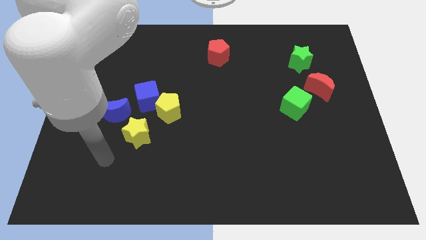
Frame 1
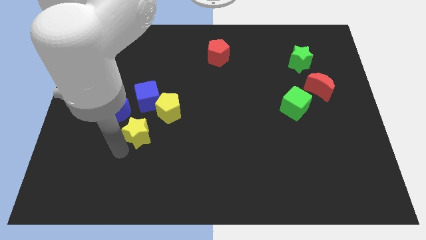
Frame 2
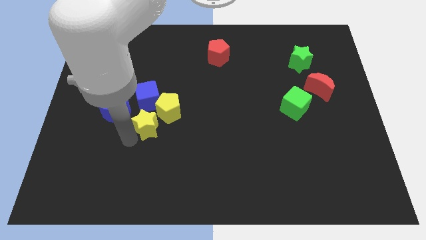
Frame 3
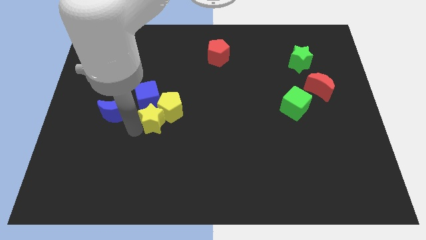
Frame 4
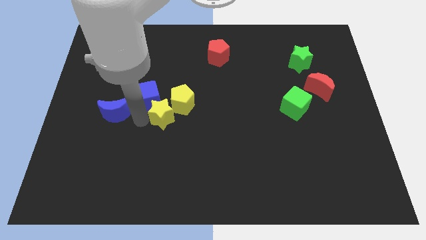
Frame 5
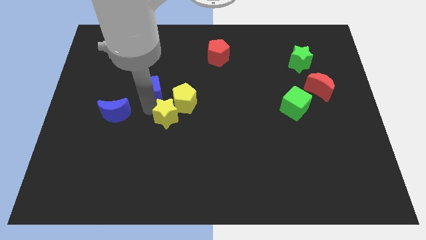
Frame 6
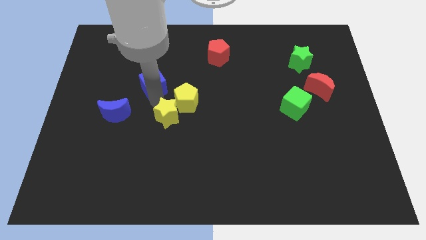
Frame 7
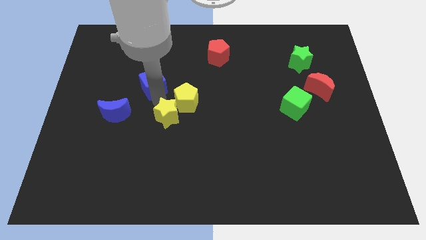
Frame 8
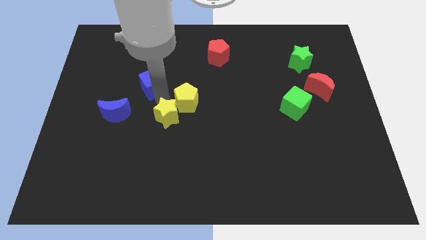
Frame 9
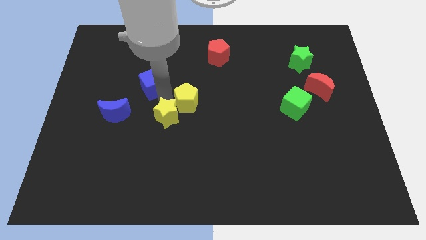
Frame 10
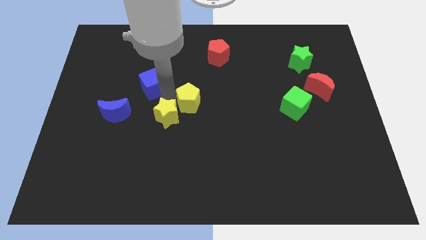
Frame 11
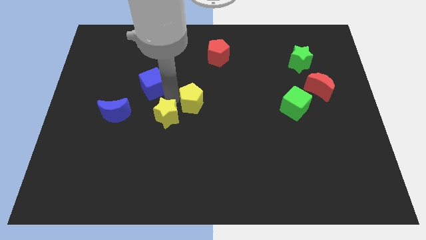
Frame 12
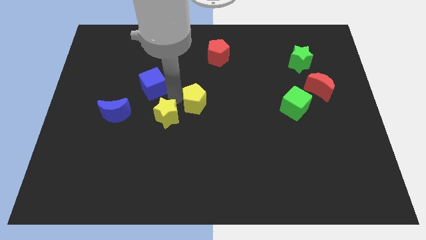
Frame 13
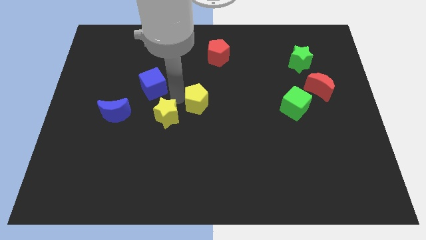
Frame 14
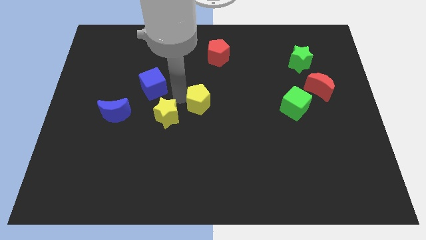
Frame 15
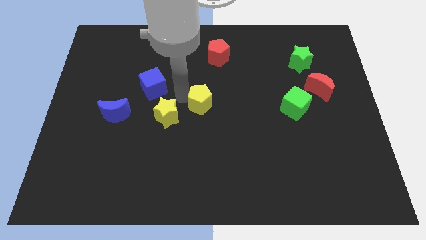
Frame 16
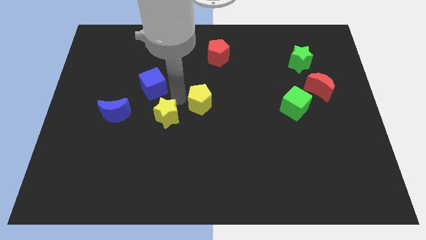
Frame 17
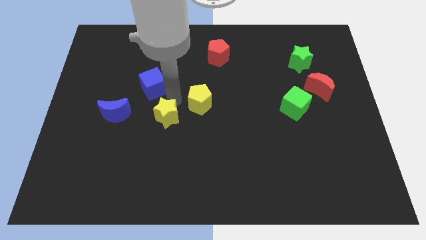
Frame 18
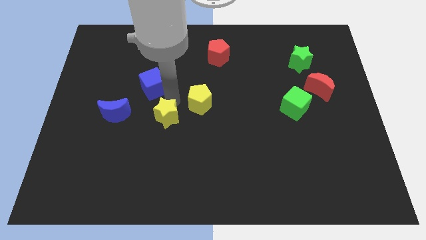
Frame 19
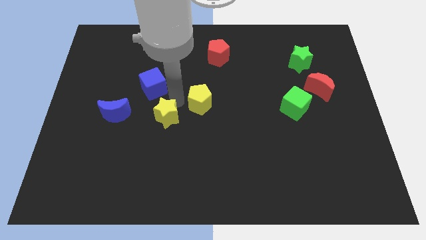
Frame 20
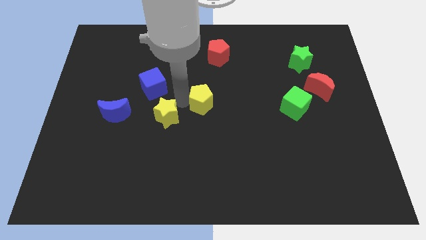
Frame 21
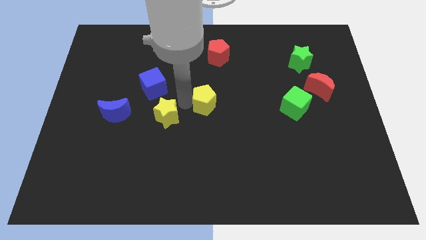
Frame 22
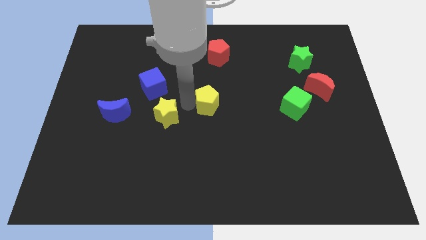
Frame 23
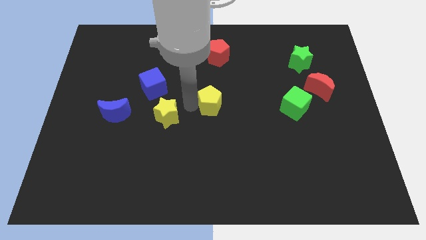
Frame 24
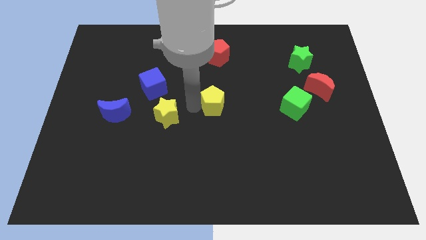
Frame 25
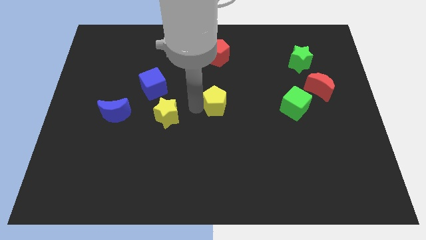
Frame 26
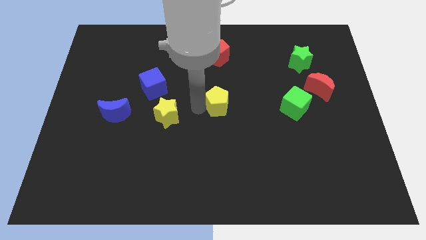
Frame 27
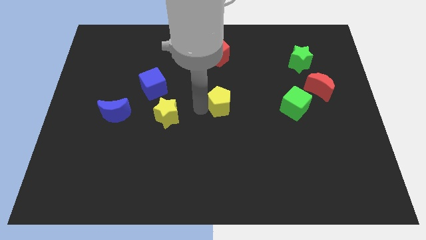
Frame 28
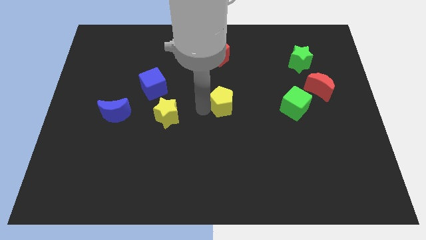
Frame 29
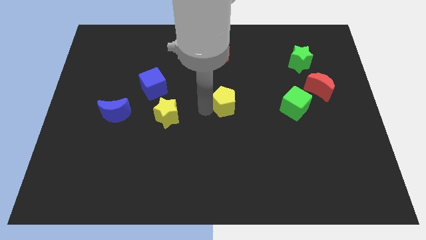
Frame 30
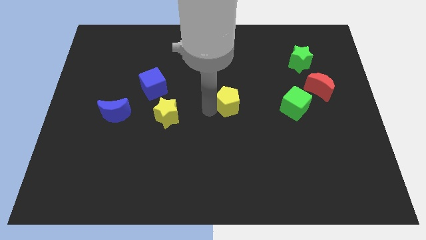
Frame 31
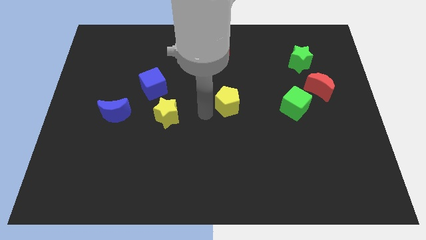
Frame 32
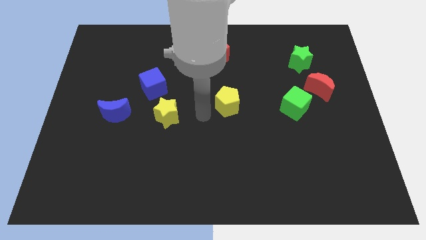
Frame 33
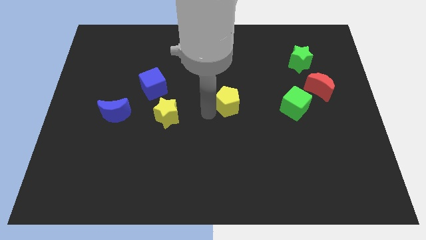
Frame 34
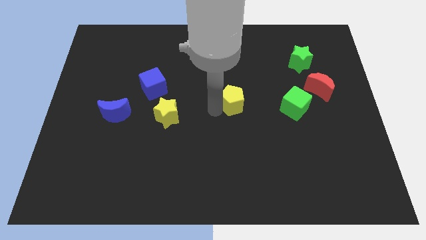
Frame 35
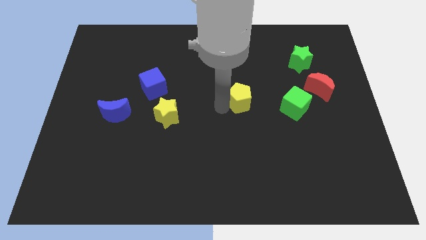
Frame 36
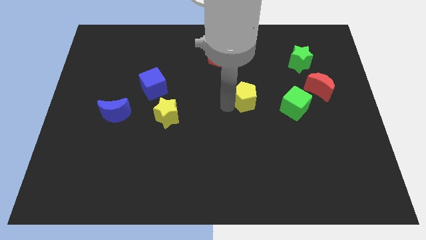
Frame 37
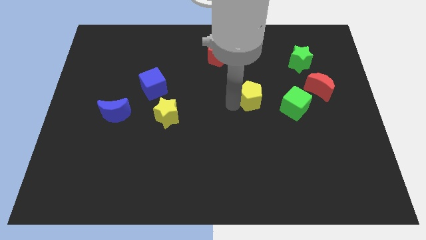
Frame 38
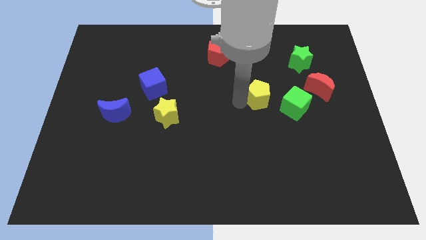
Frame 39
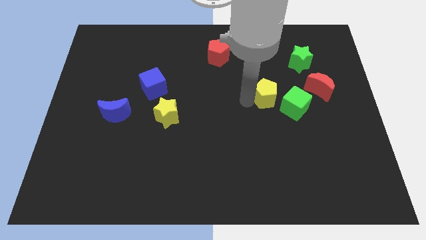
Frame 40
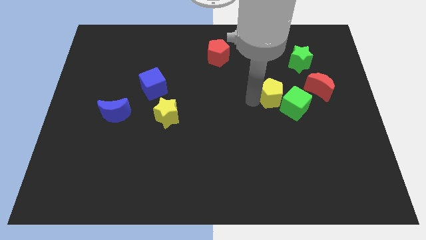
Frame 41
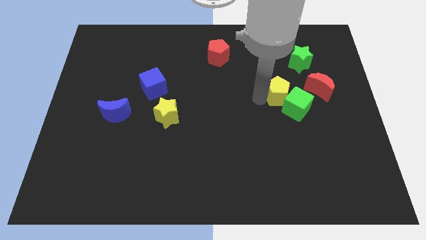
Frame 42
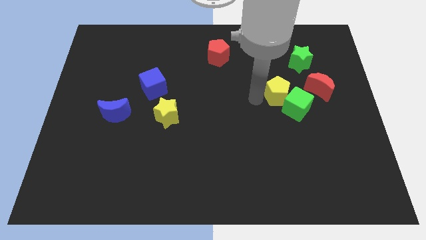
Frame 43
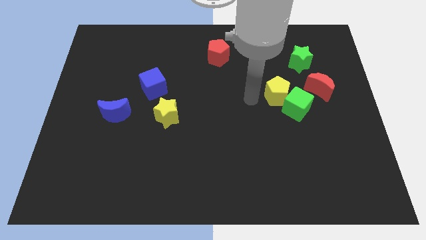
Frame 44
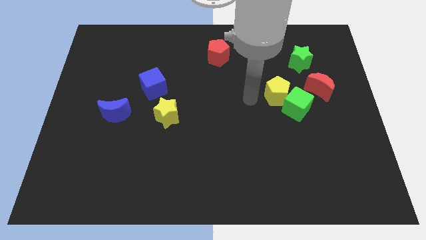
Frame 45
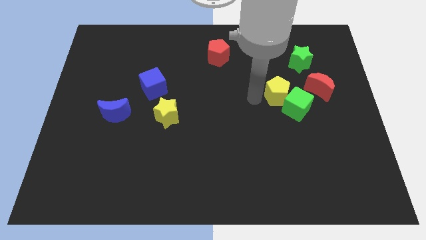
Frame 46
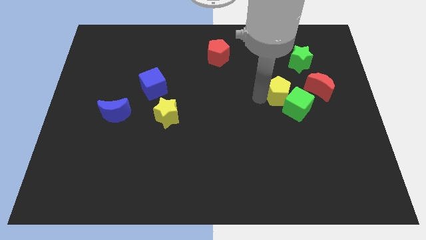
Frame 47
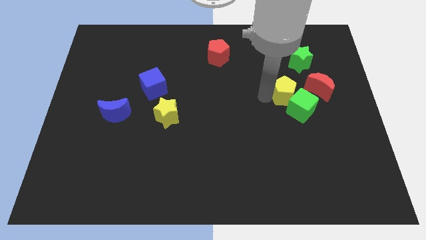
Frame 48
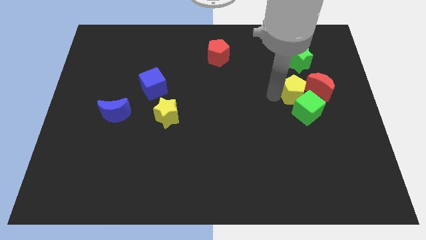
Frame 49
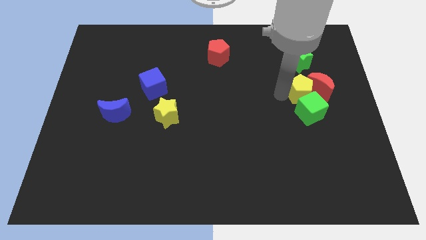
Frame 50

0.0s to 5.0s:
put the yellow pentagon towards the red moon

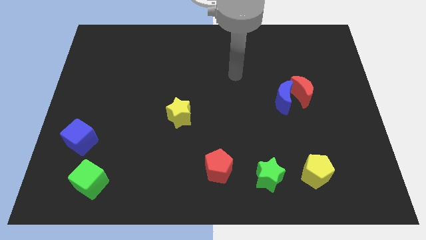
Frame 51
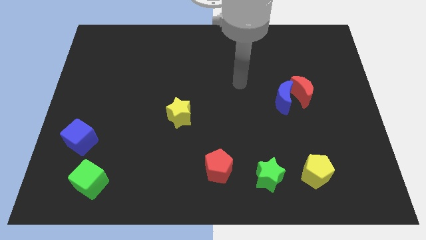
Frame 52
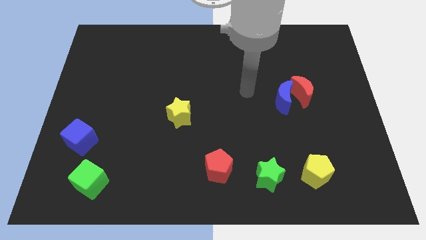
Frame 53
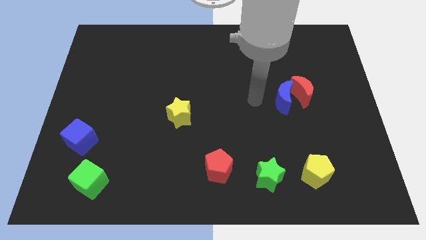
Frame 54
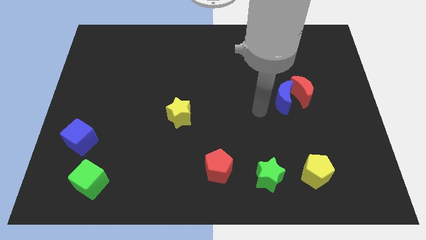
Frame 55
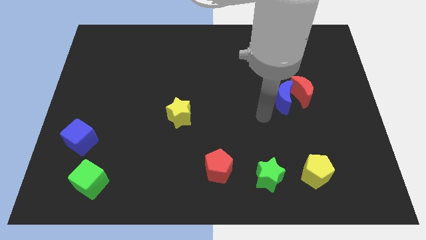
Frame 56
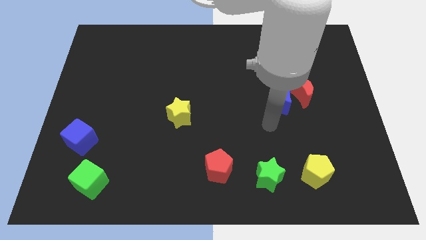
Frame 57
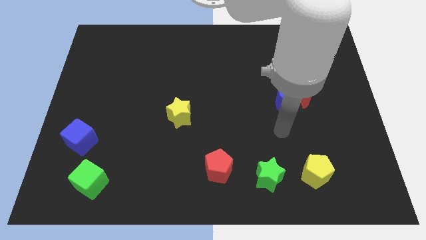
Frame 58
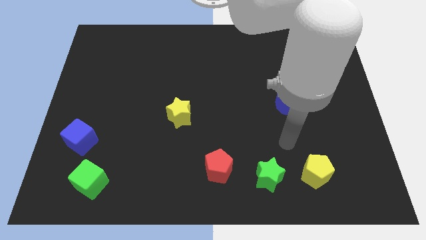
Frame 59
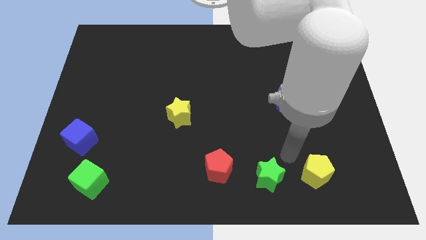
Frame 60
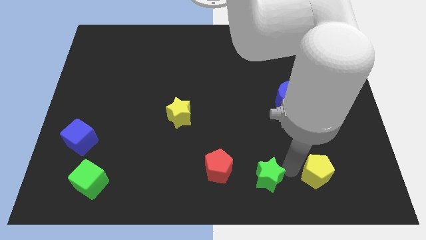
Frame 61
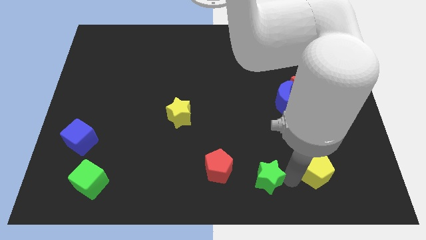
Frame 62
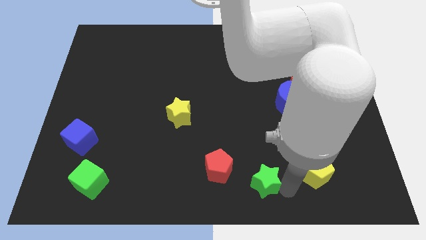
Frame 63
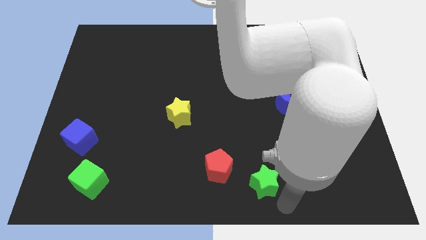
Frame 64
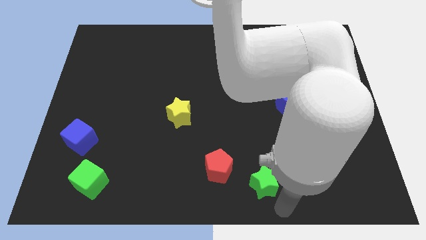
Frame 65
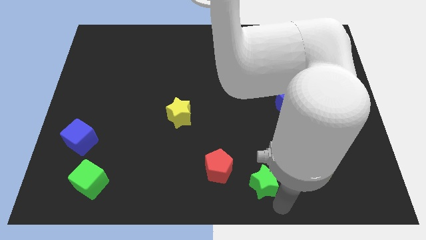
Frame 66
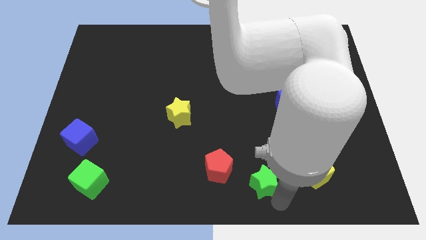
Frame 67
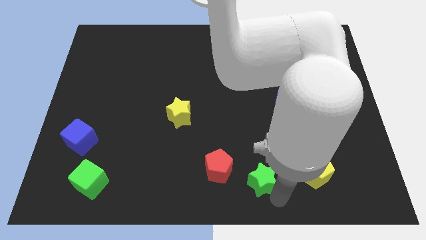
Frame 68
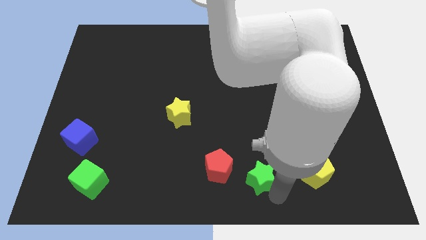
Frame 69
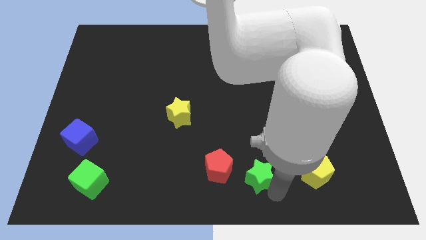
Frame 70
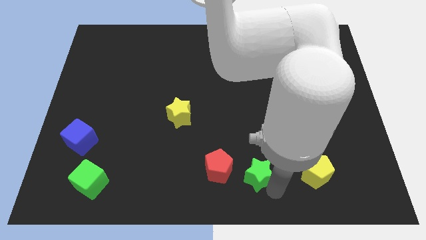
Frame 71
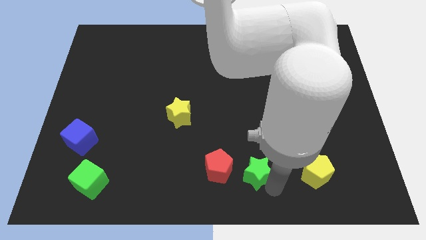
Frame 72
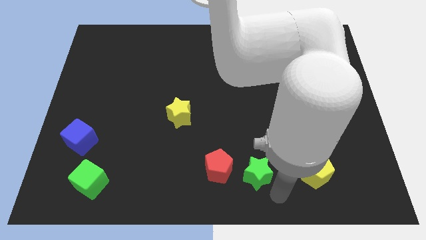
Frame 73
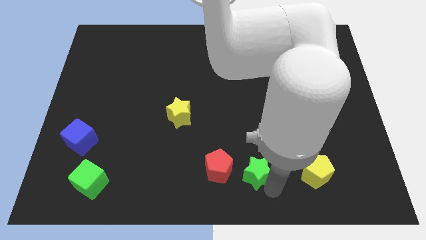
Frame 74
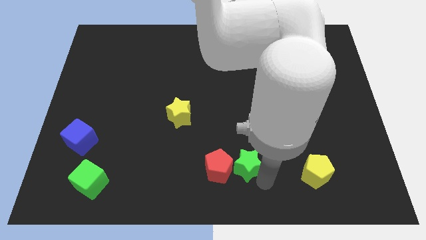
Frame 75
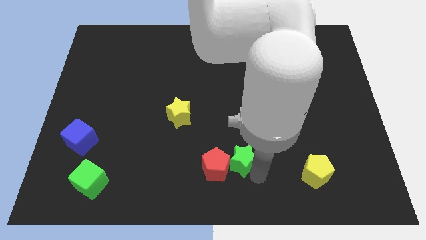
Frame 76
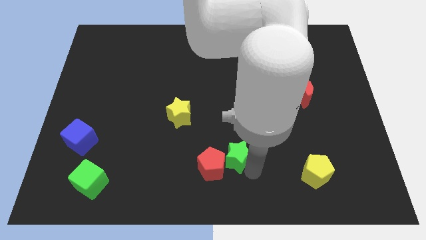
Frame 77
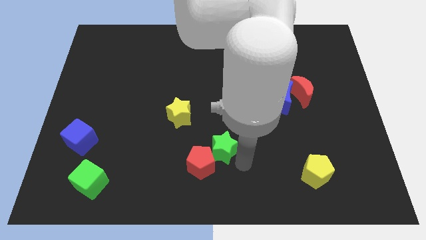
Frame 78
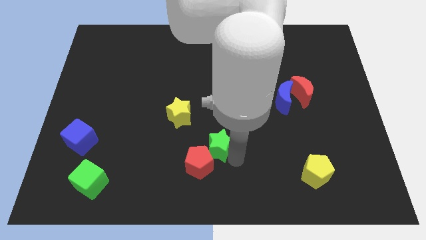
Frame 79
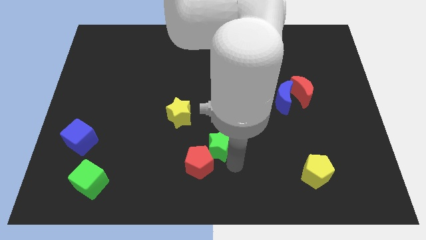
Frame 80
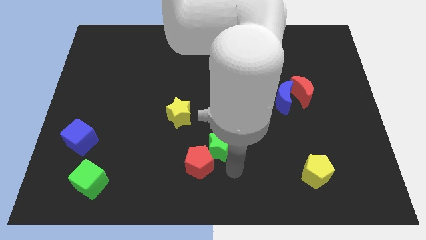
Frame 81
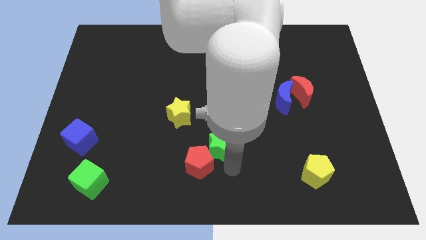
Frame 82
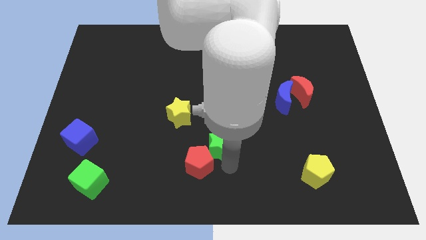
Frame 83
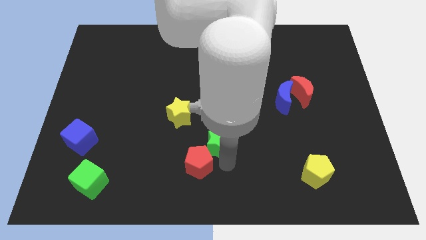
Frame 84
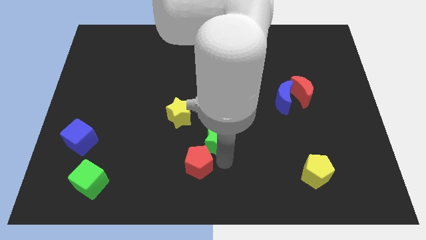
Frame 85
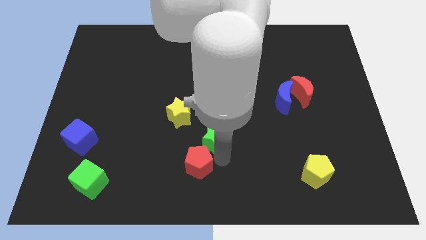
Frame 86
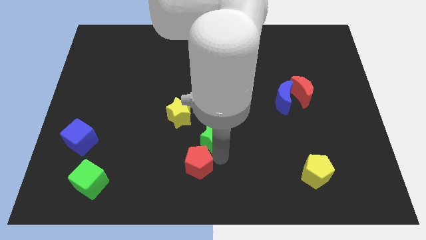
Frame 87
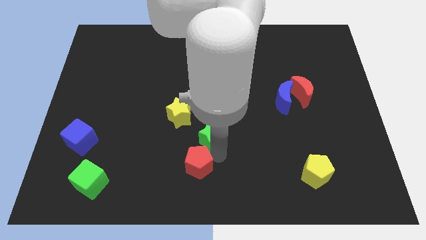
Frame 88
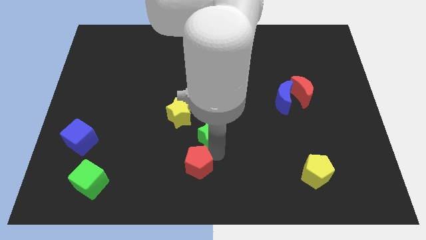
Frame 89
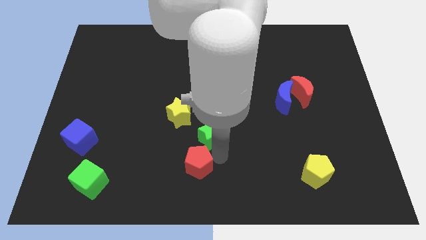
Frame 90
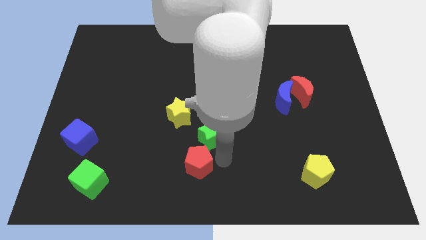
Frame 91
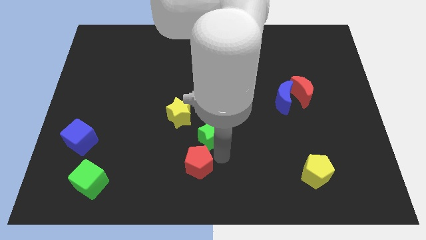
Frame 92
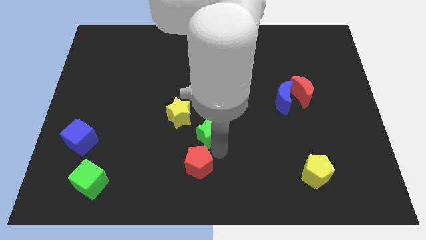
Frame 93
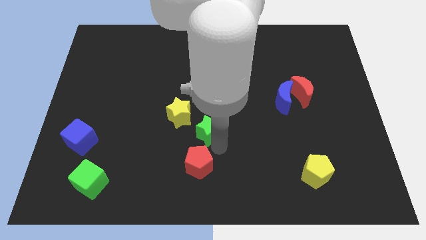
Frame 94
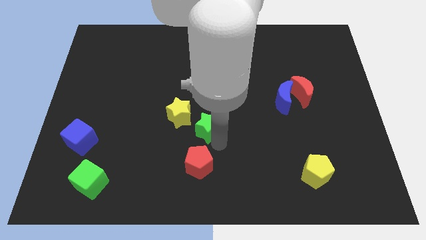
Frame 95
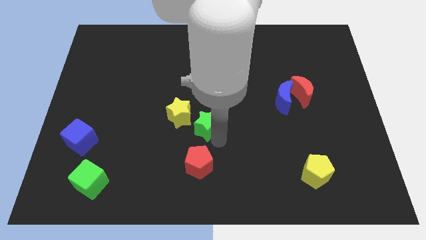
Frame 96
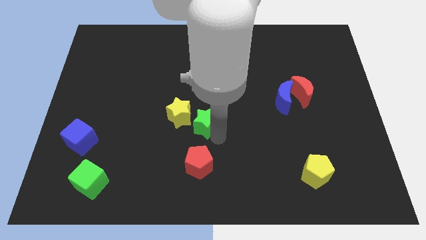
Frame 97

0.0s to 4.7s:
slide the green star to the yellow star
